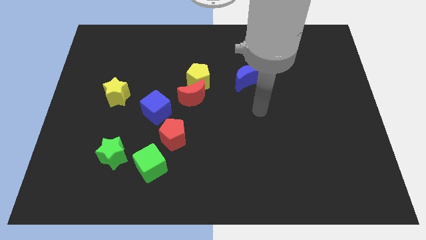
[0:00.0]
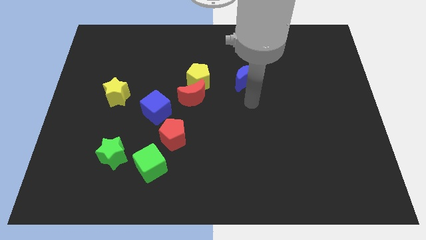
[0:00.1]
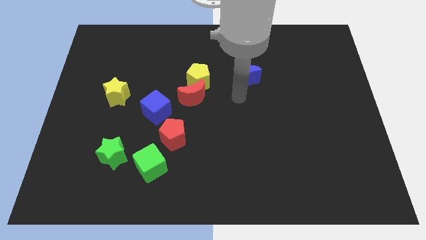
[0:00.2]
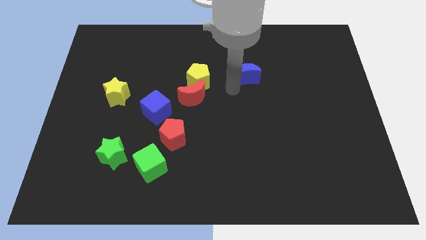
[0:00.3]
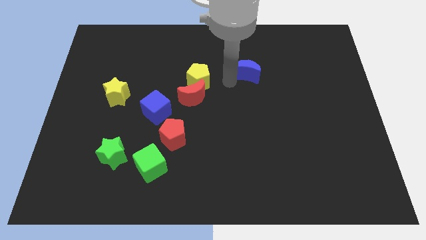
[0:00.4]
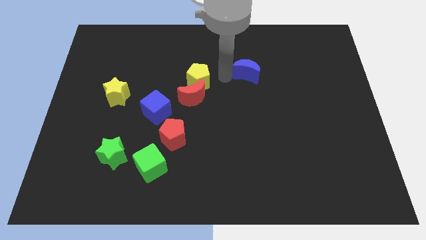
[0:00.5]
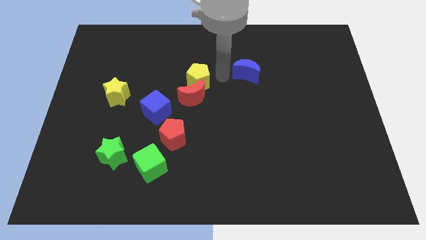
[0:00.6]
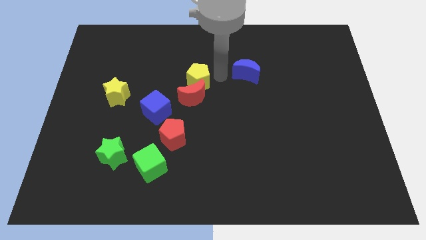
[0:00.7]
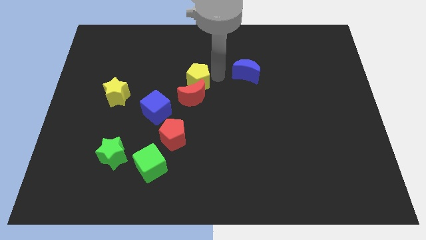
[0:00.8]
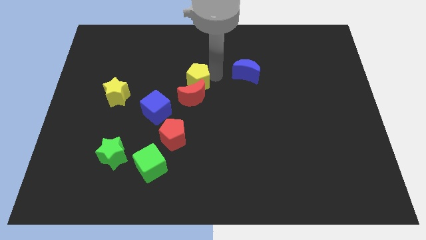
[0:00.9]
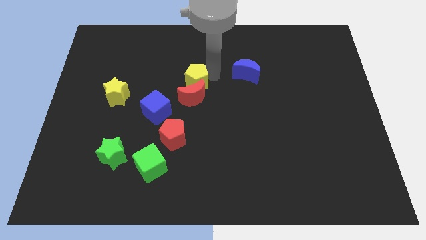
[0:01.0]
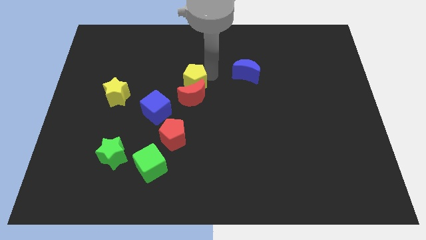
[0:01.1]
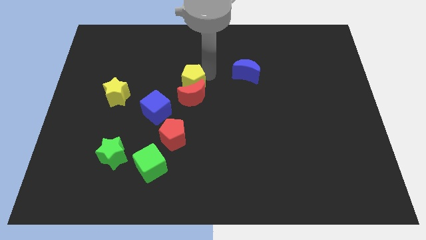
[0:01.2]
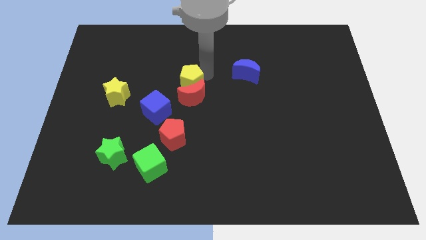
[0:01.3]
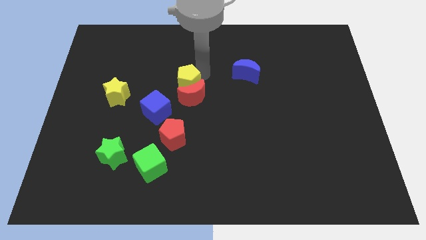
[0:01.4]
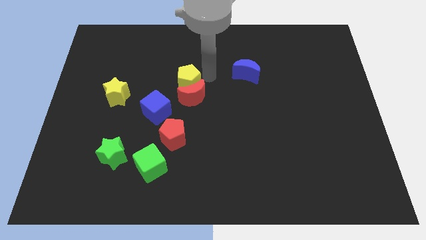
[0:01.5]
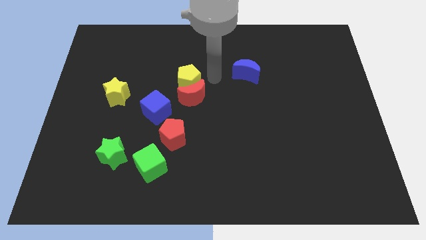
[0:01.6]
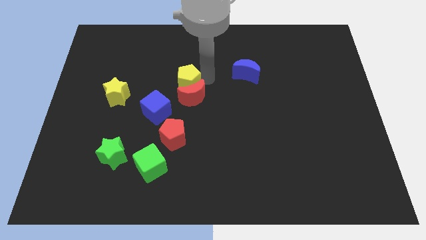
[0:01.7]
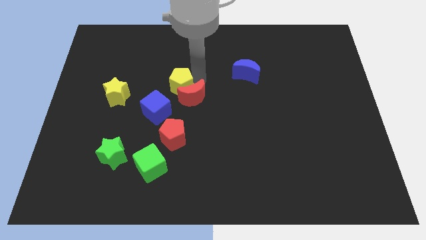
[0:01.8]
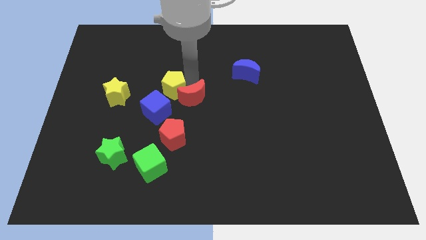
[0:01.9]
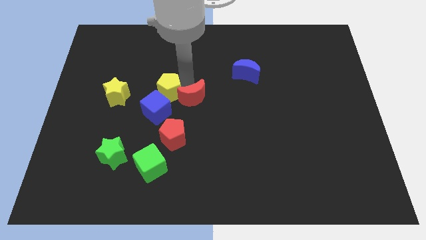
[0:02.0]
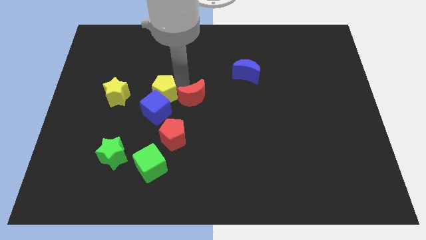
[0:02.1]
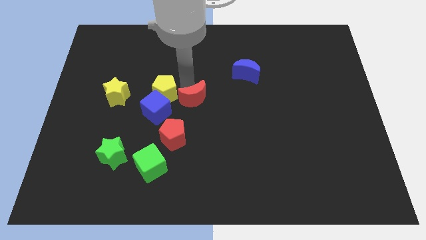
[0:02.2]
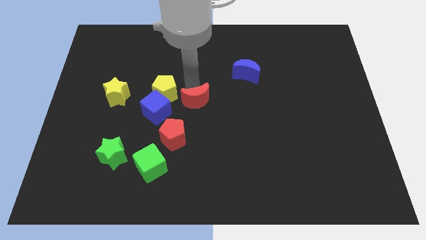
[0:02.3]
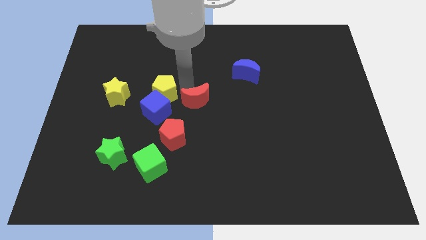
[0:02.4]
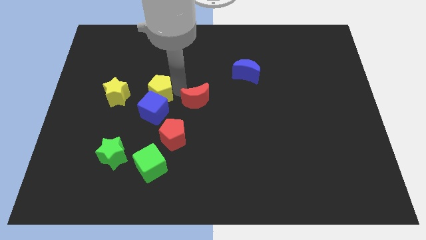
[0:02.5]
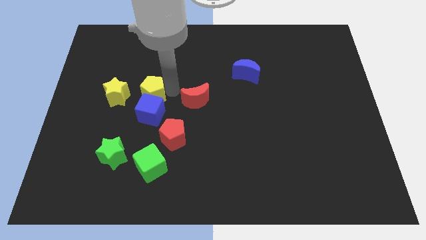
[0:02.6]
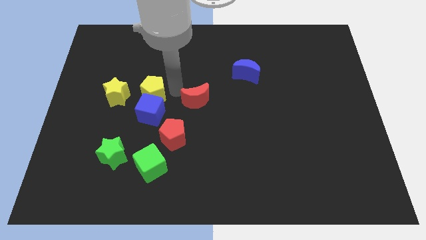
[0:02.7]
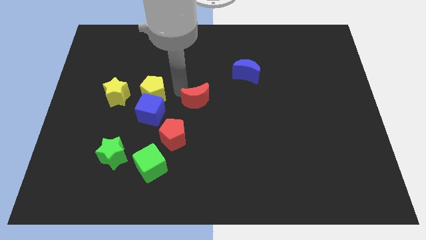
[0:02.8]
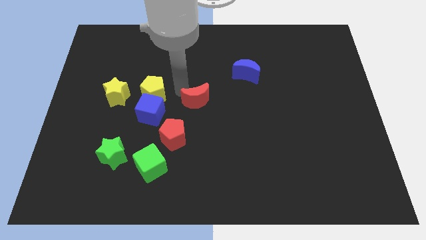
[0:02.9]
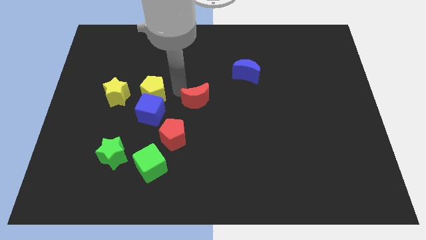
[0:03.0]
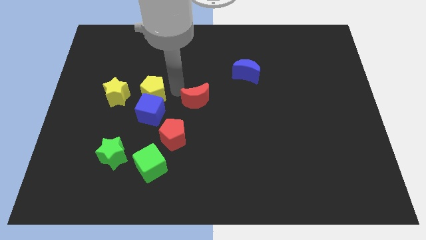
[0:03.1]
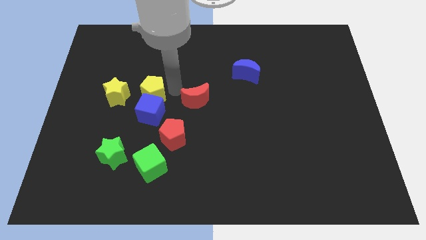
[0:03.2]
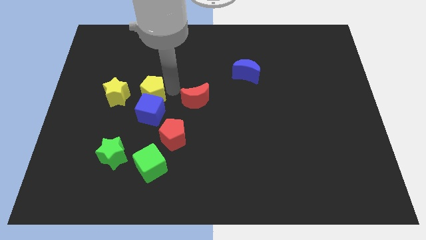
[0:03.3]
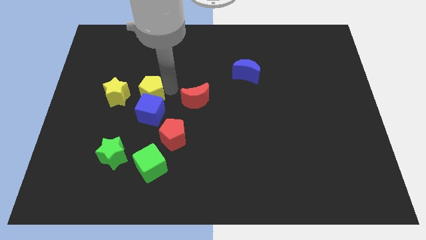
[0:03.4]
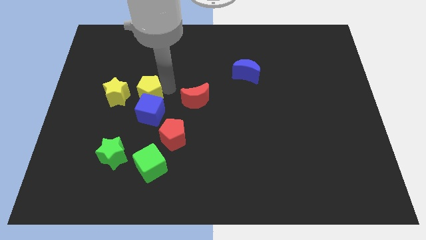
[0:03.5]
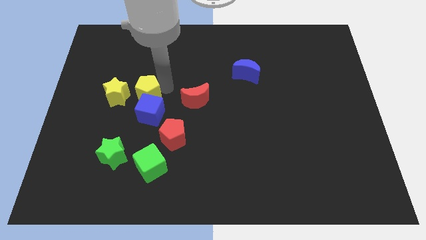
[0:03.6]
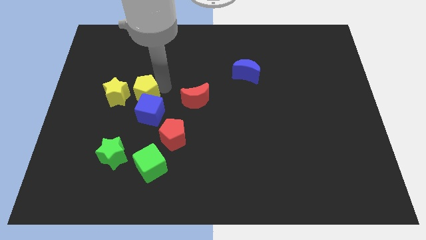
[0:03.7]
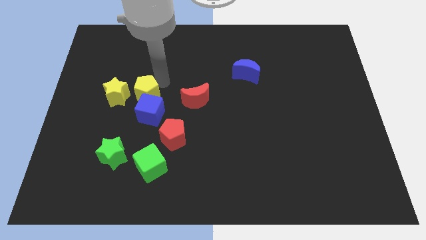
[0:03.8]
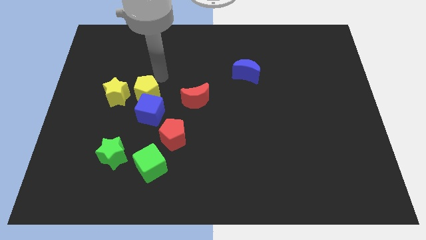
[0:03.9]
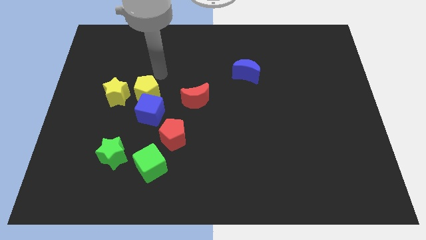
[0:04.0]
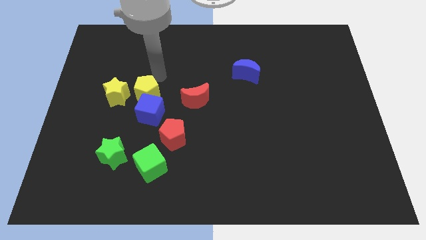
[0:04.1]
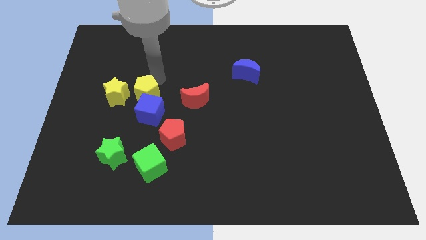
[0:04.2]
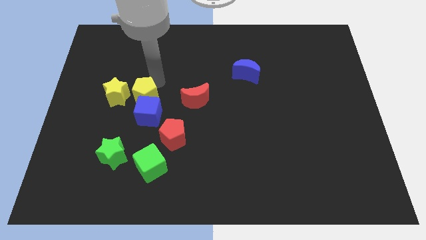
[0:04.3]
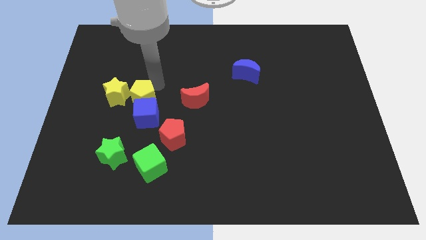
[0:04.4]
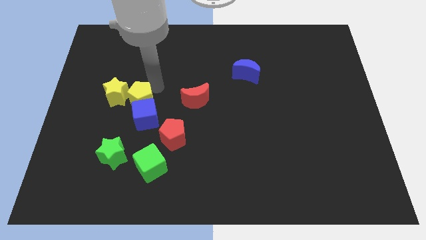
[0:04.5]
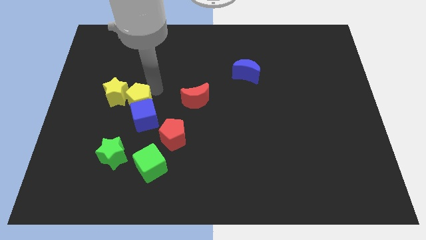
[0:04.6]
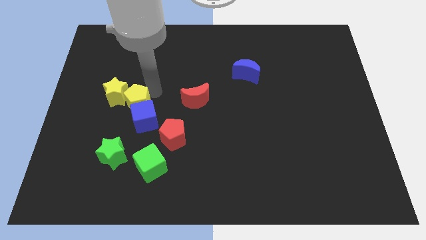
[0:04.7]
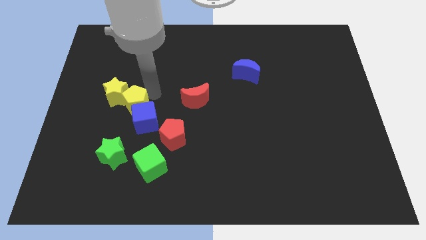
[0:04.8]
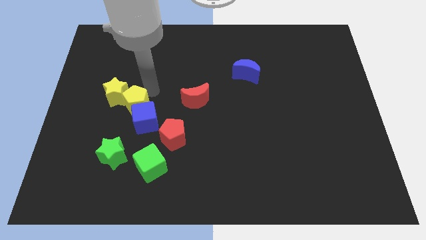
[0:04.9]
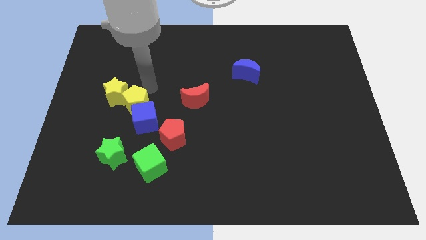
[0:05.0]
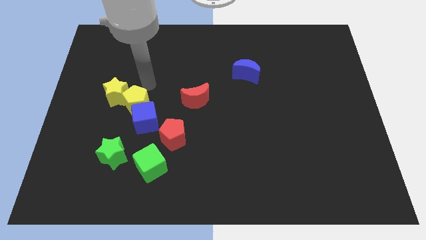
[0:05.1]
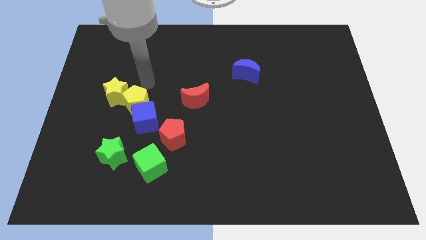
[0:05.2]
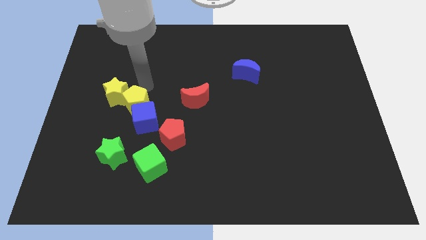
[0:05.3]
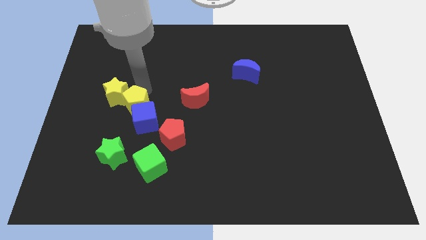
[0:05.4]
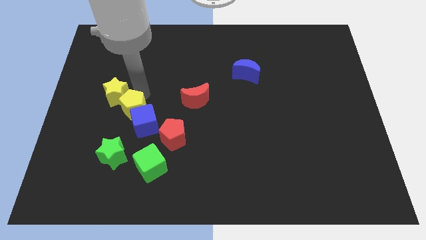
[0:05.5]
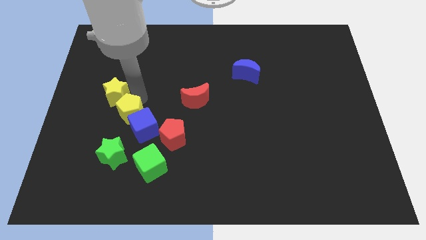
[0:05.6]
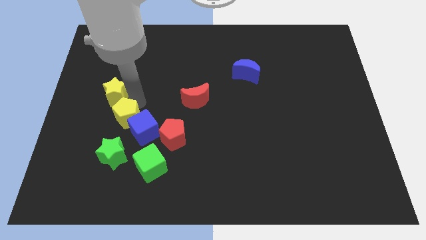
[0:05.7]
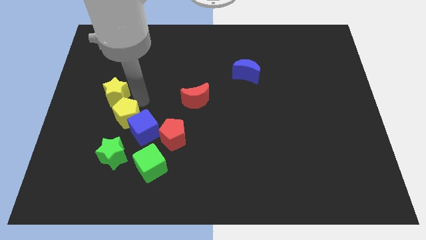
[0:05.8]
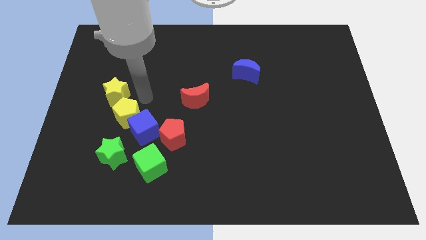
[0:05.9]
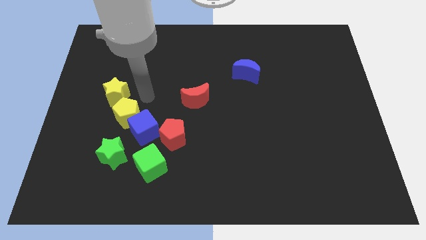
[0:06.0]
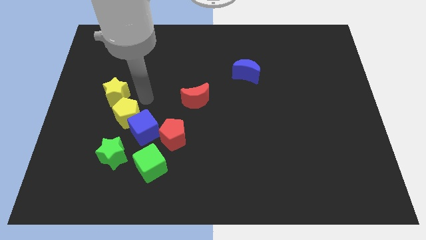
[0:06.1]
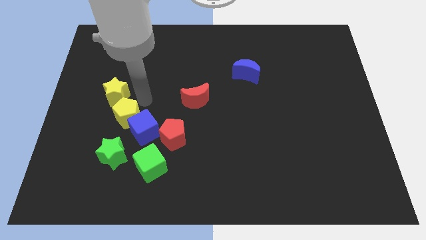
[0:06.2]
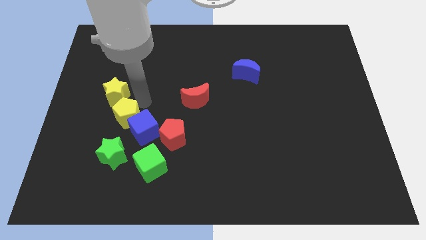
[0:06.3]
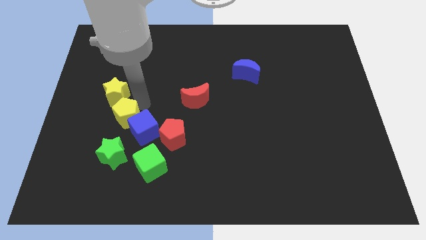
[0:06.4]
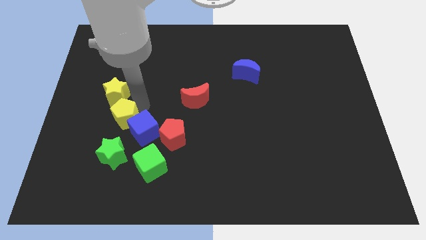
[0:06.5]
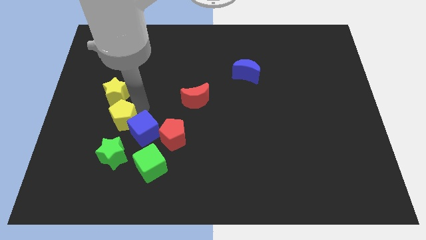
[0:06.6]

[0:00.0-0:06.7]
push the yellow pentagon diagonally down and left

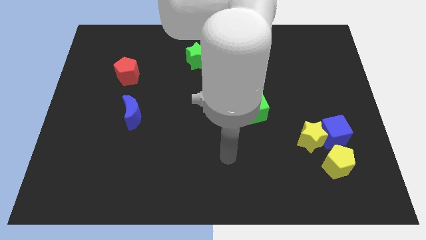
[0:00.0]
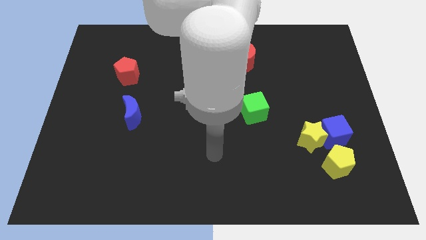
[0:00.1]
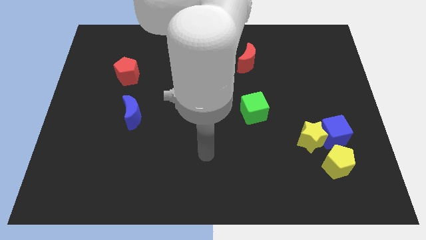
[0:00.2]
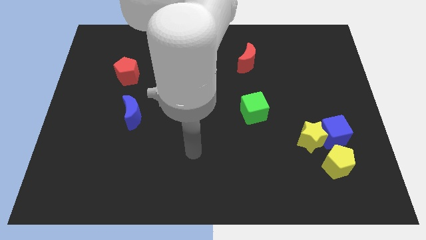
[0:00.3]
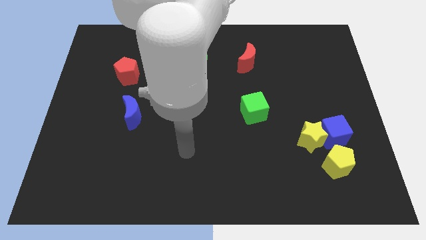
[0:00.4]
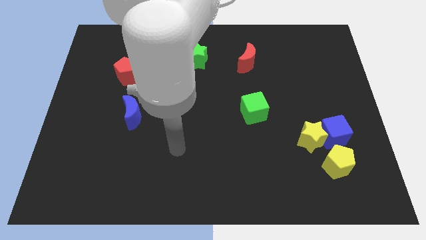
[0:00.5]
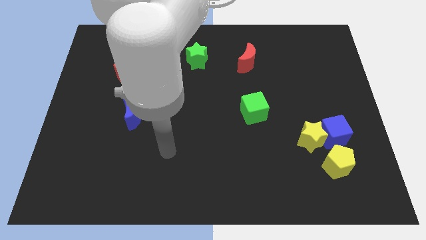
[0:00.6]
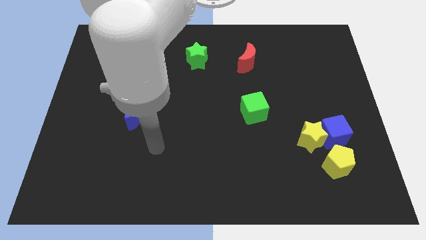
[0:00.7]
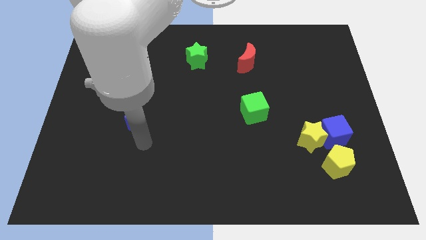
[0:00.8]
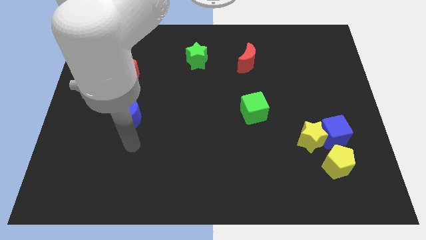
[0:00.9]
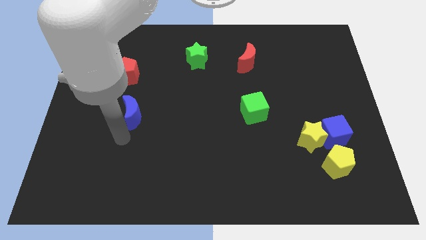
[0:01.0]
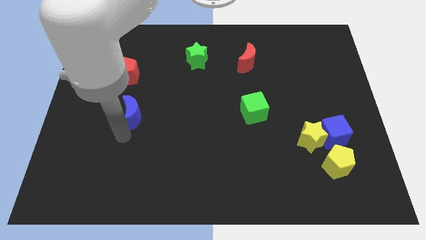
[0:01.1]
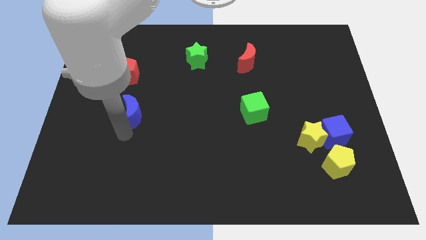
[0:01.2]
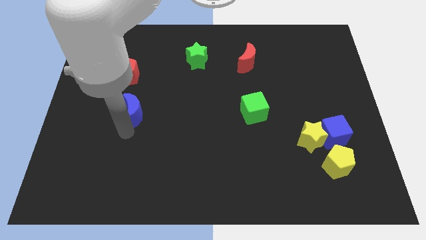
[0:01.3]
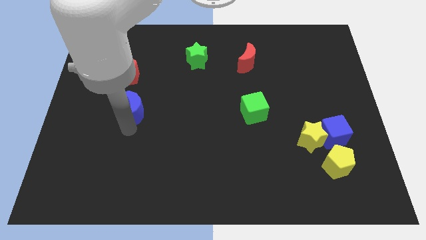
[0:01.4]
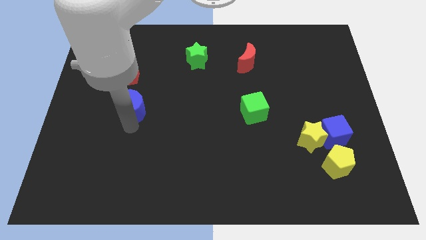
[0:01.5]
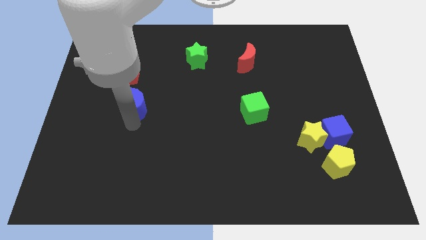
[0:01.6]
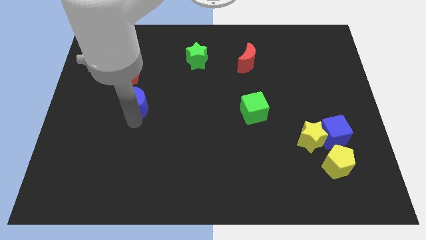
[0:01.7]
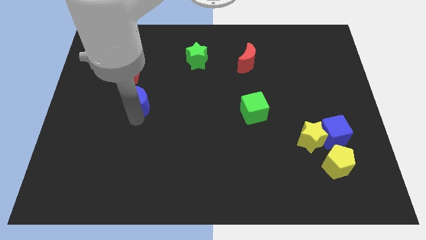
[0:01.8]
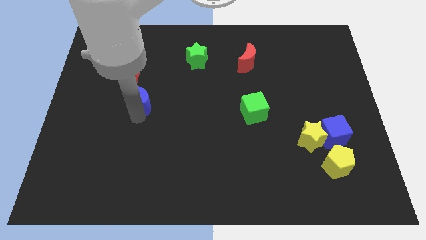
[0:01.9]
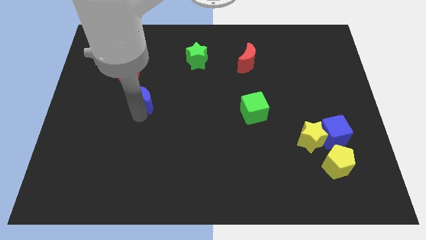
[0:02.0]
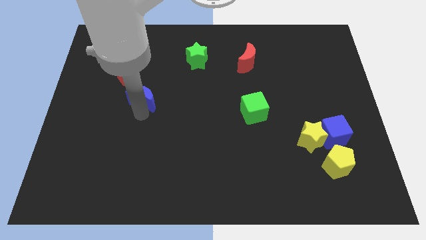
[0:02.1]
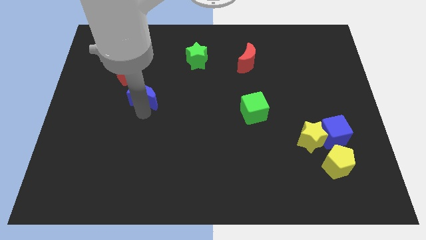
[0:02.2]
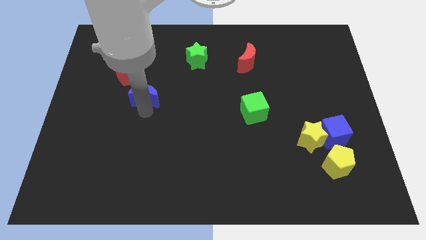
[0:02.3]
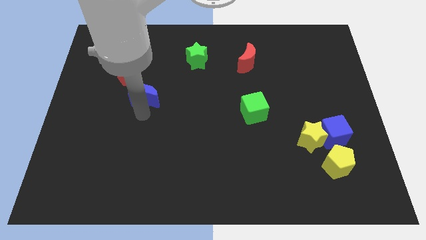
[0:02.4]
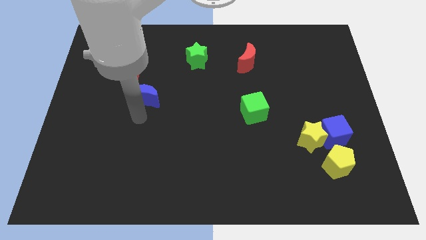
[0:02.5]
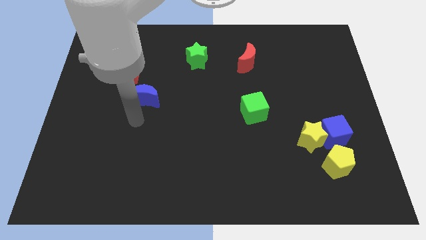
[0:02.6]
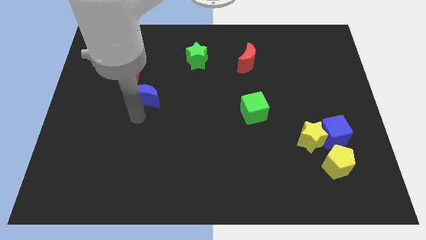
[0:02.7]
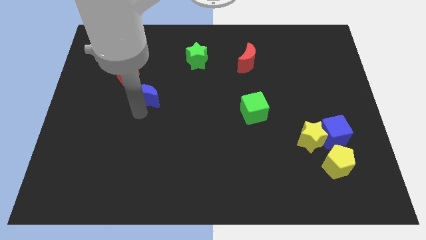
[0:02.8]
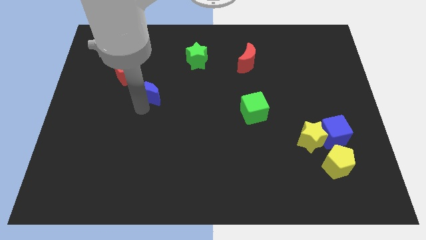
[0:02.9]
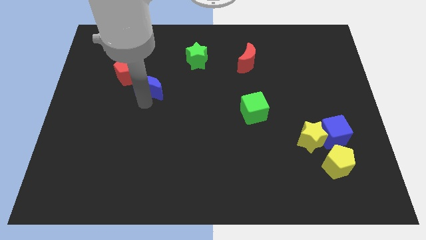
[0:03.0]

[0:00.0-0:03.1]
push the blue moon somewhat upwards
